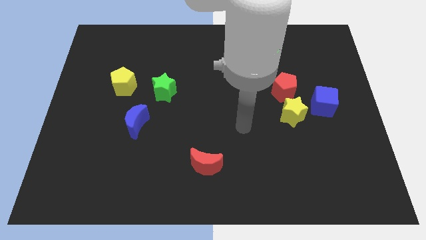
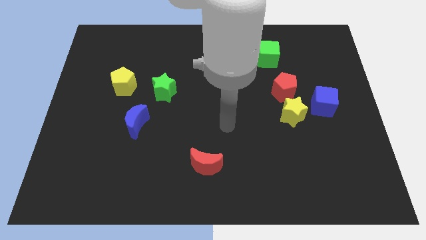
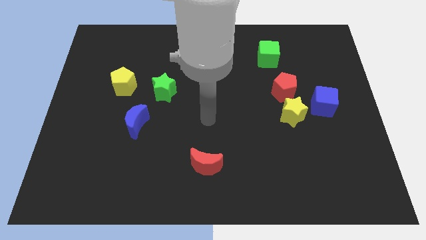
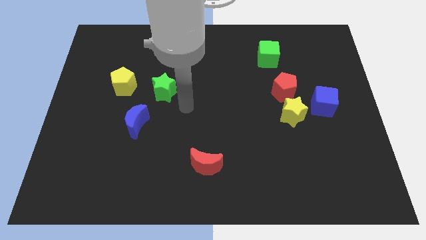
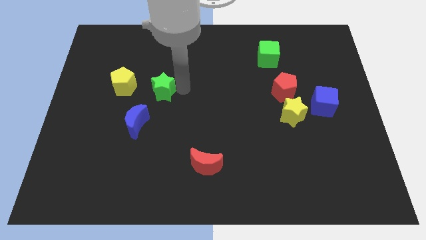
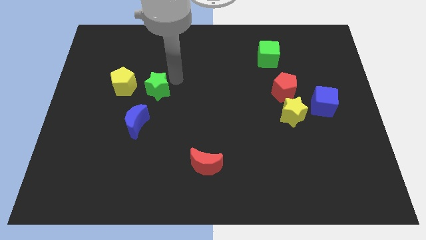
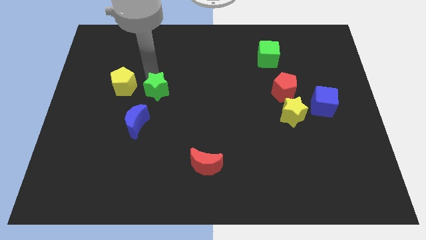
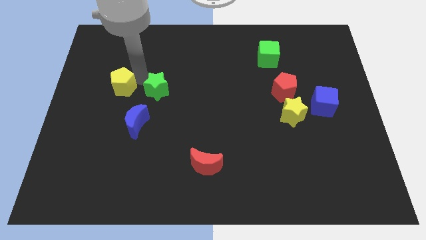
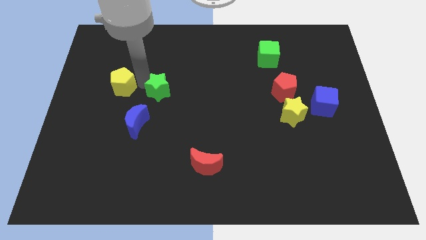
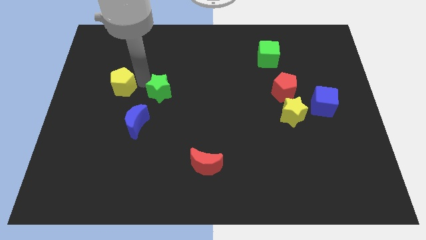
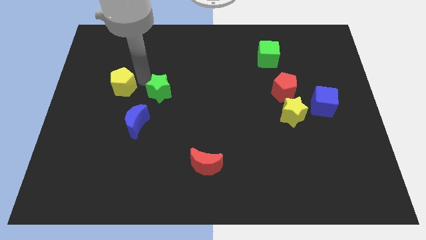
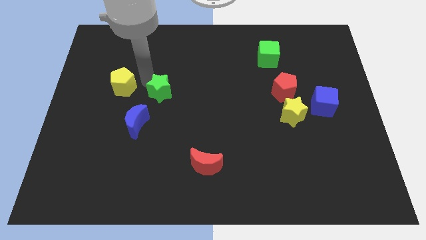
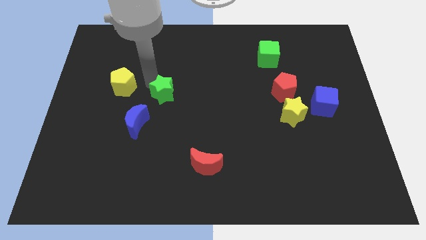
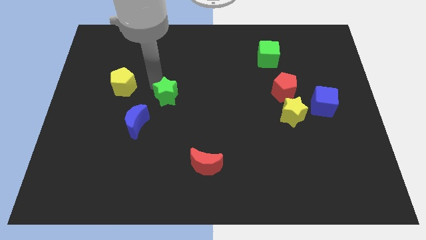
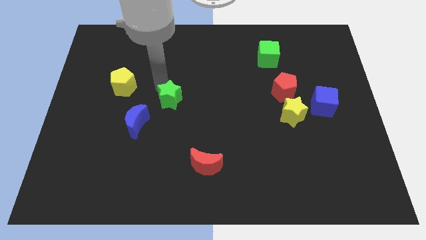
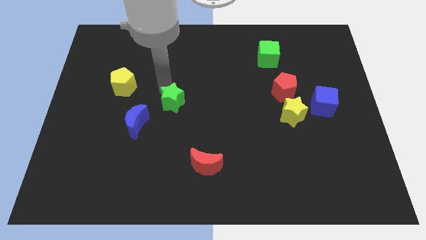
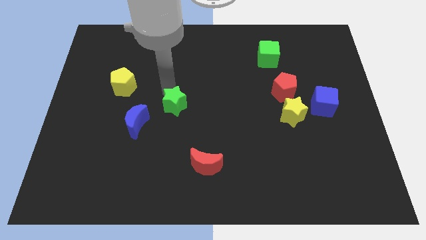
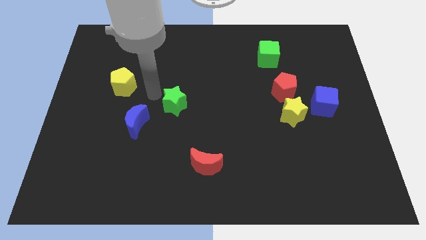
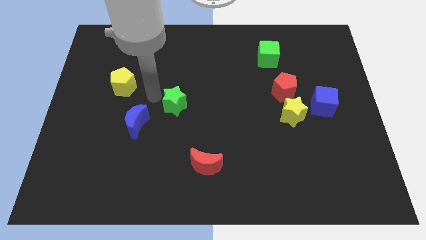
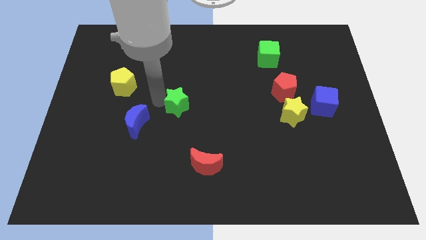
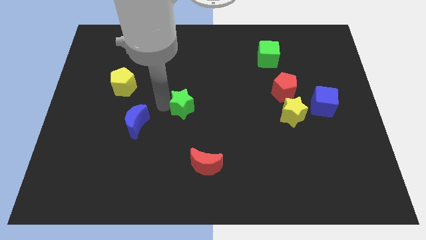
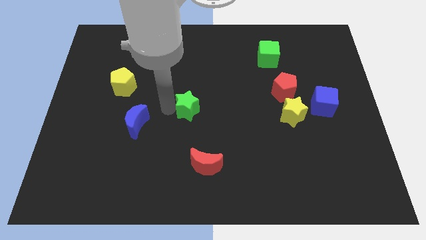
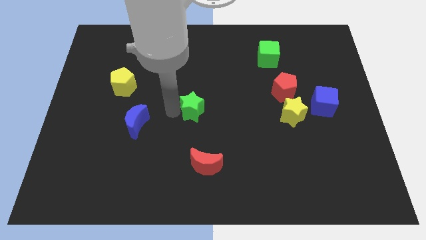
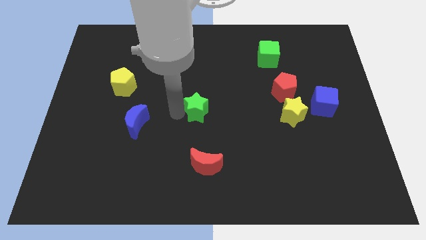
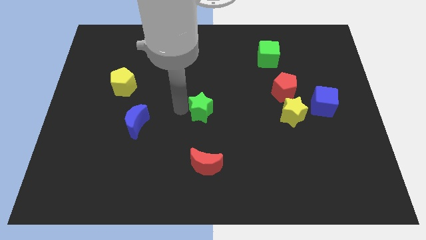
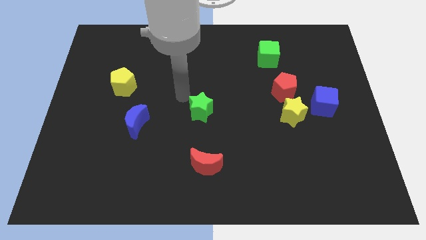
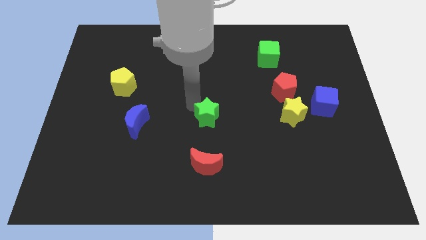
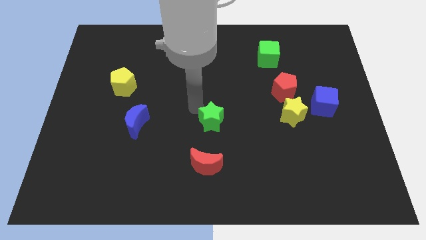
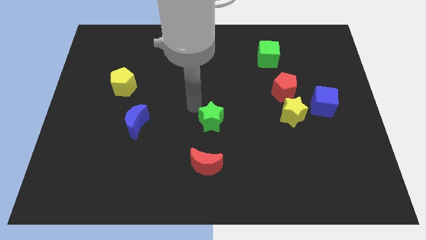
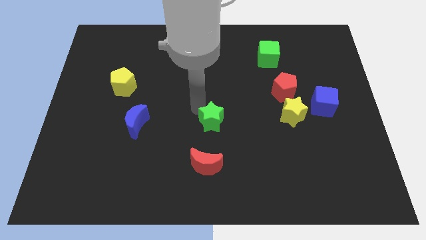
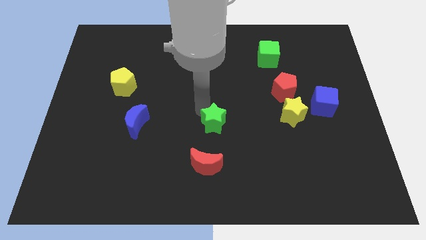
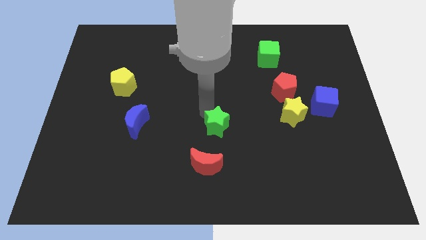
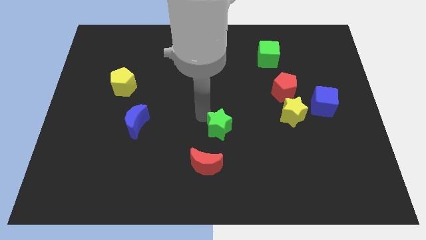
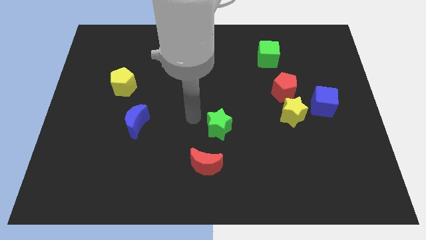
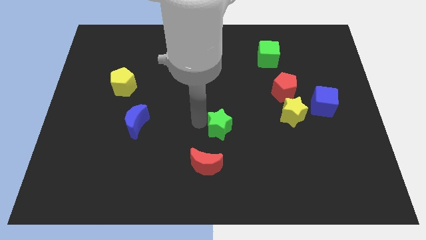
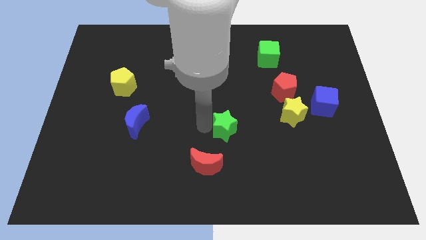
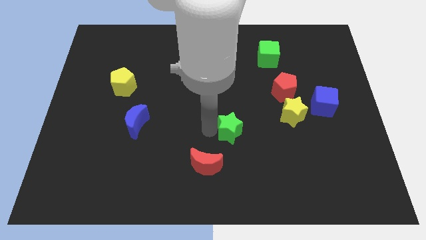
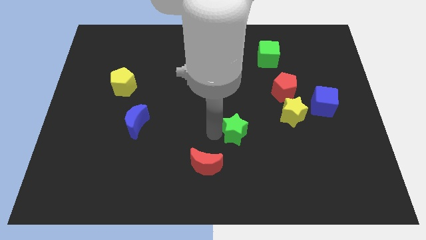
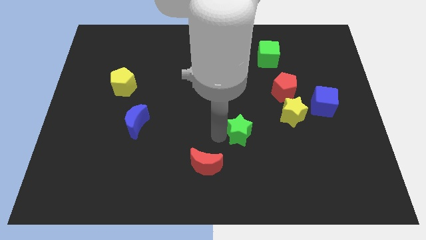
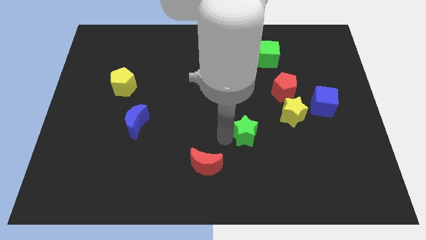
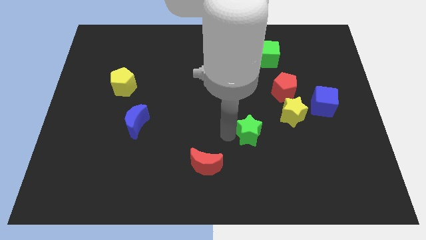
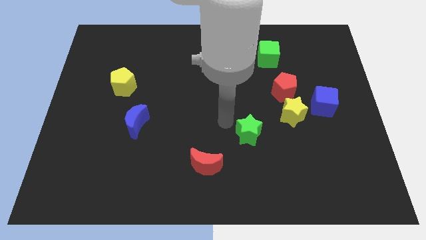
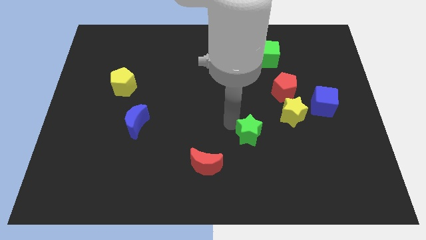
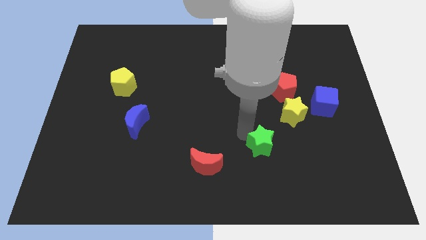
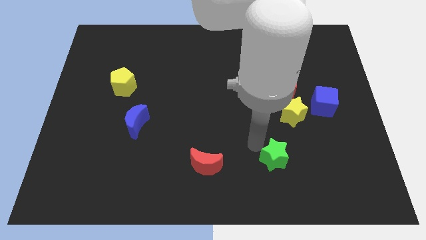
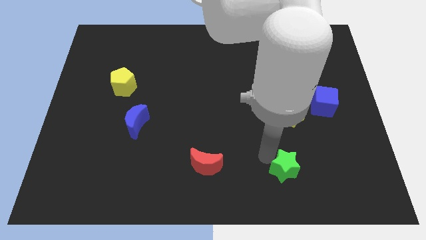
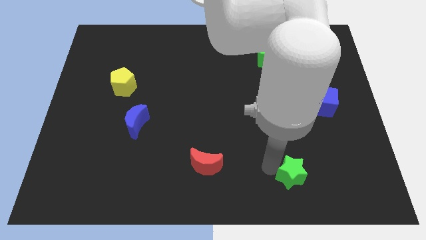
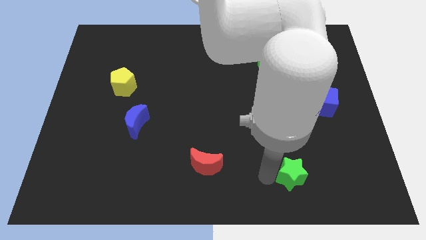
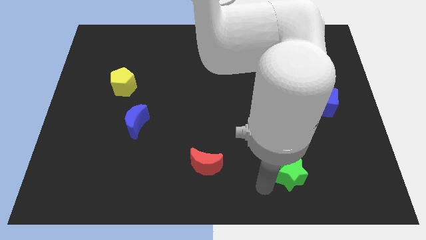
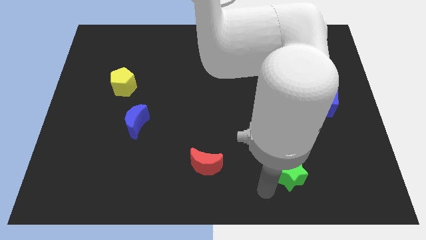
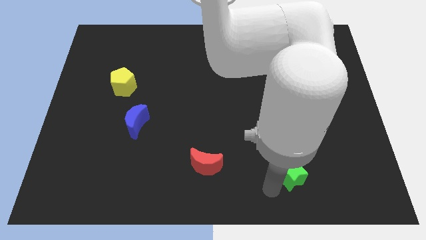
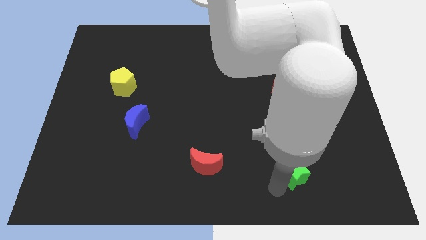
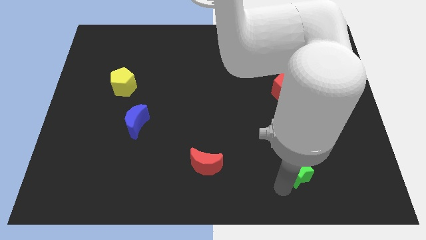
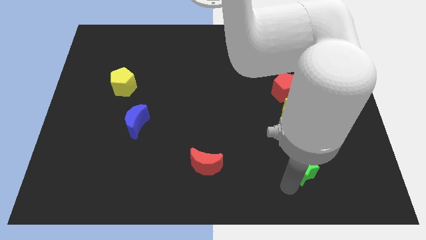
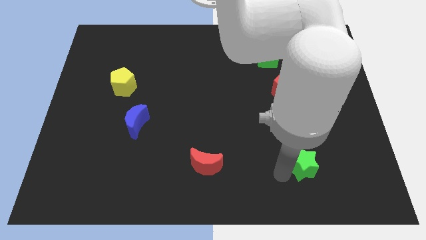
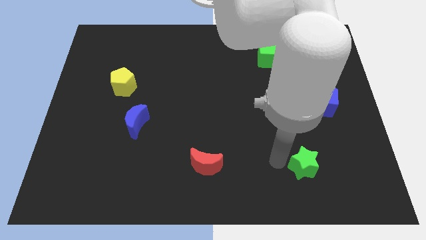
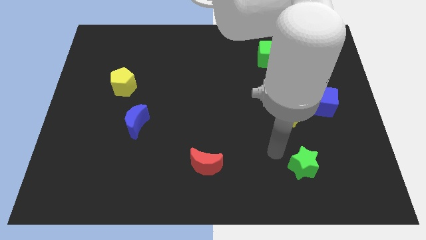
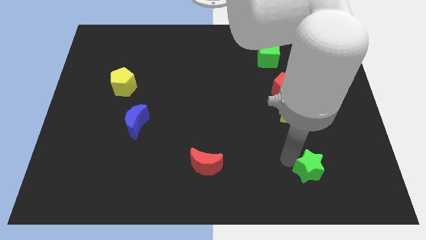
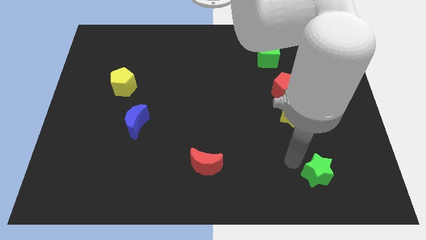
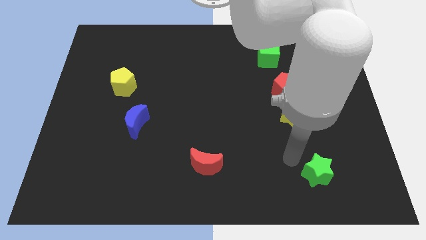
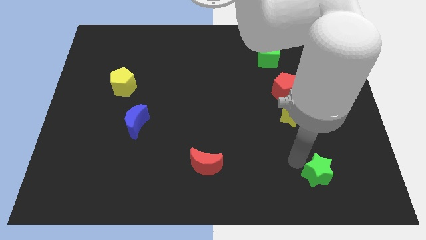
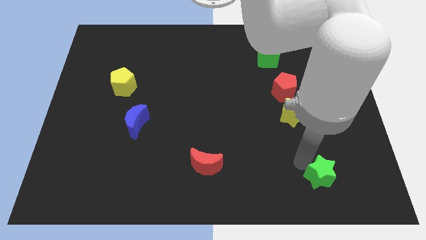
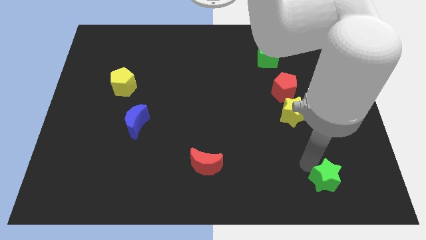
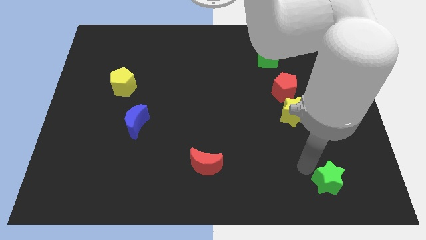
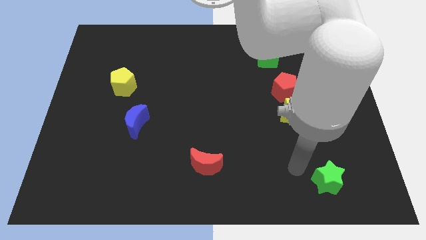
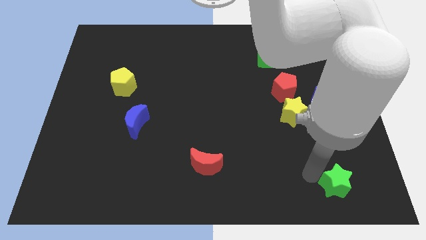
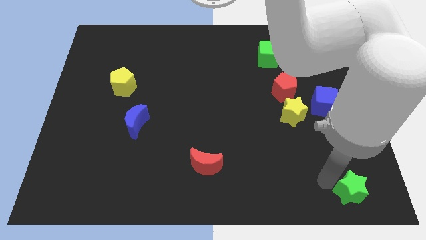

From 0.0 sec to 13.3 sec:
put the green star to the bottom right corner

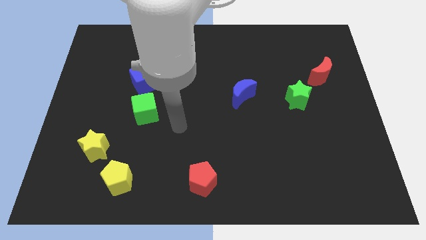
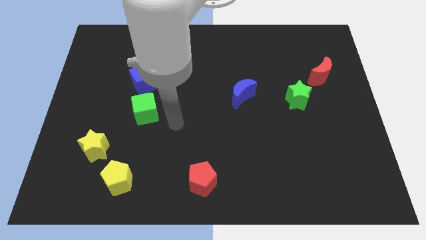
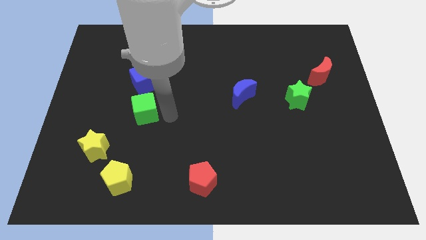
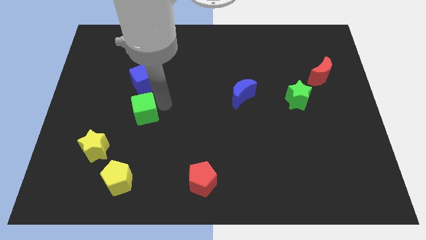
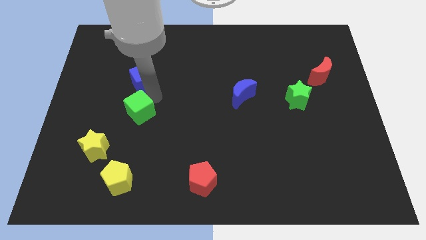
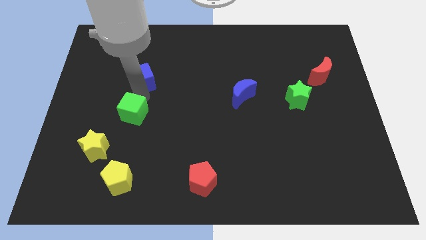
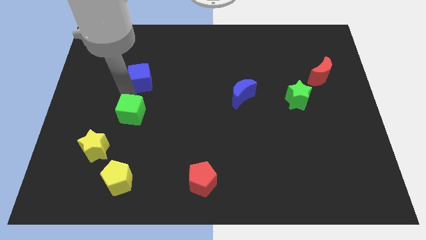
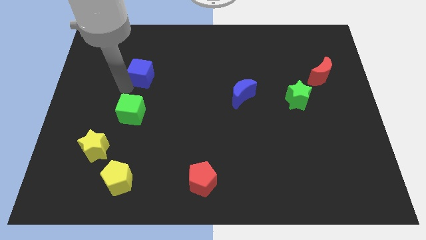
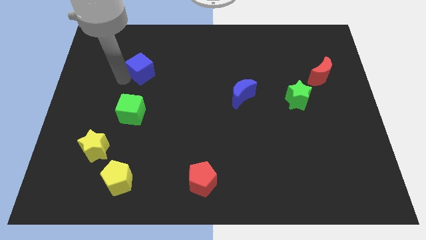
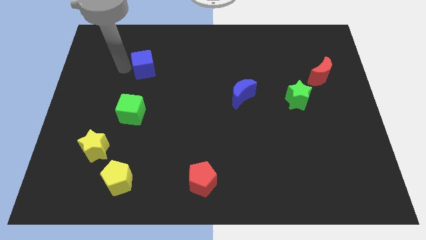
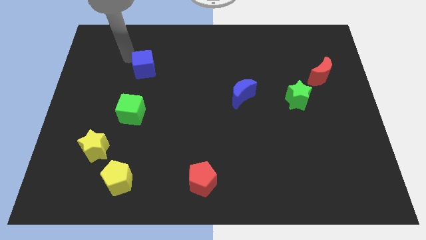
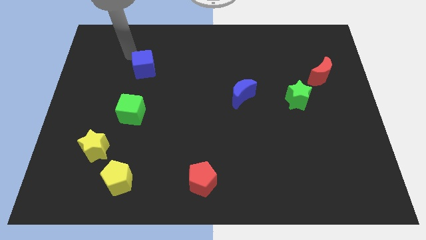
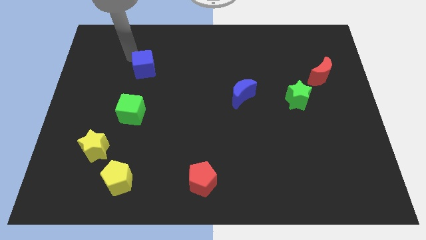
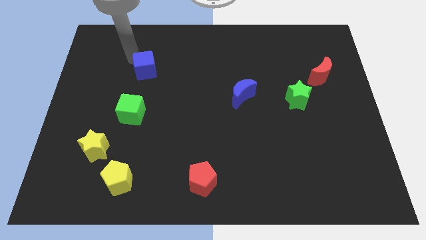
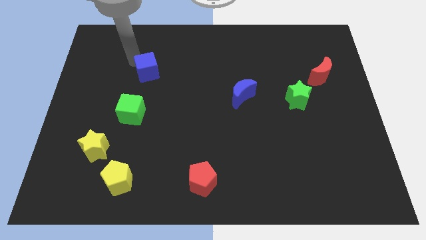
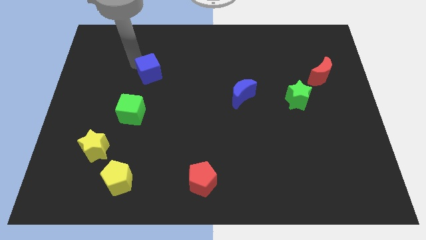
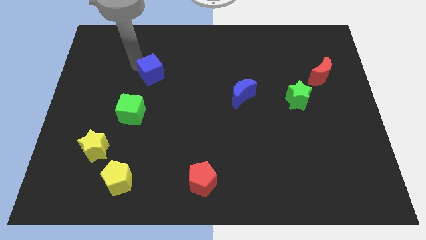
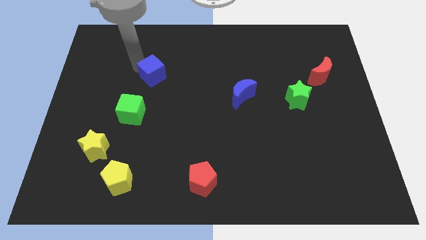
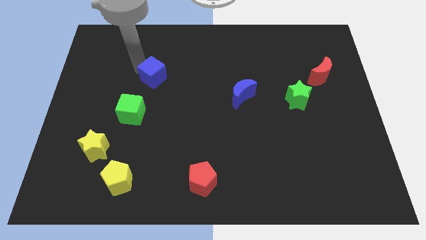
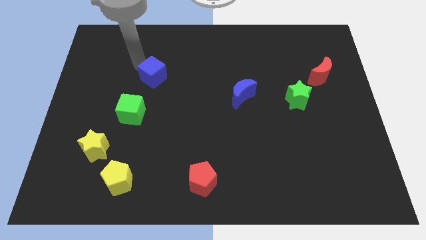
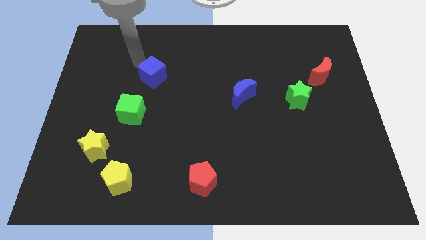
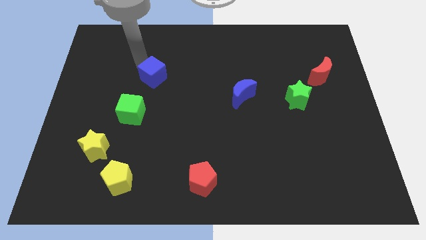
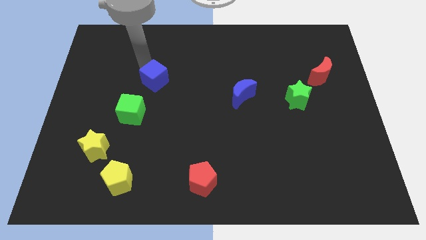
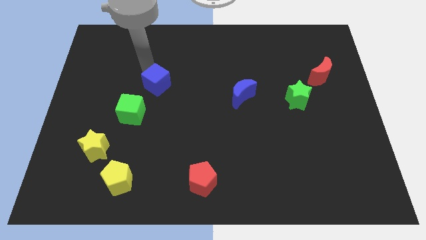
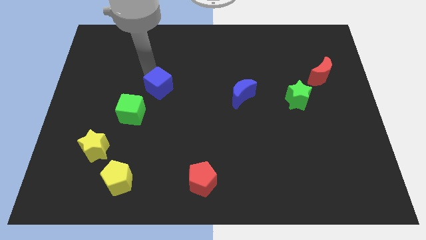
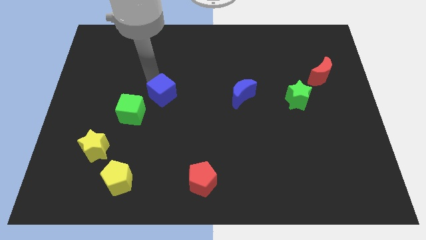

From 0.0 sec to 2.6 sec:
slide the blue cube to the middle of the board
